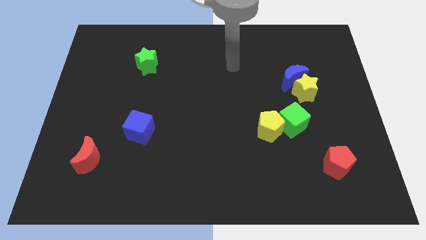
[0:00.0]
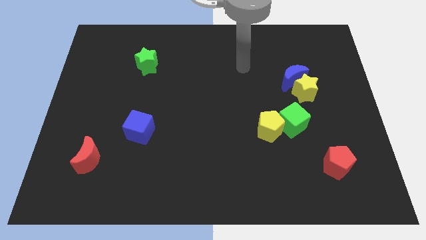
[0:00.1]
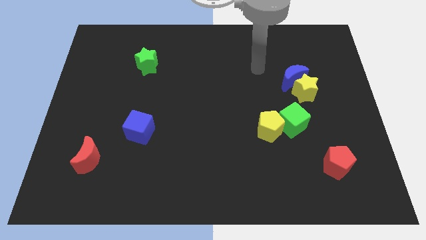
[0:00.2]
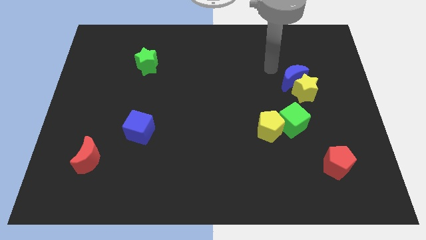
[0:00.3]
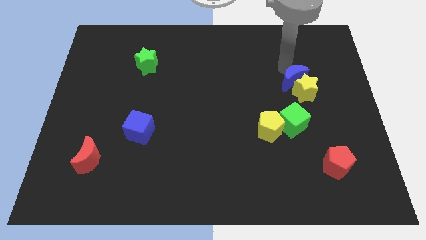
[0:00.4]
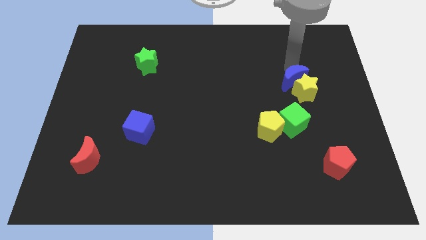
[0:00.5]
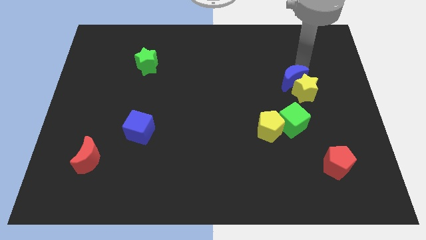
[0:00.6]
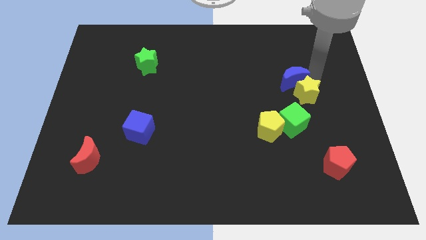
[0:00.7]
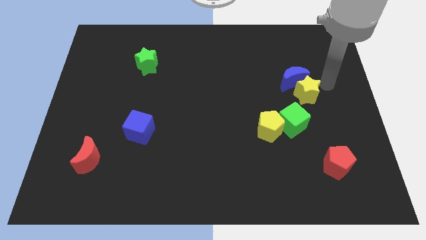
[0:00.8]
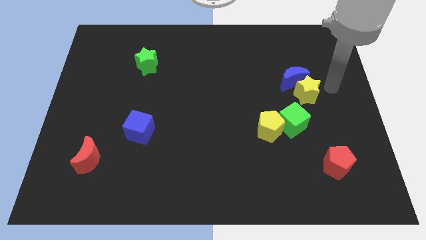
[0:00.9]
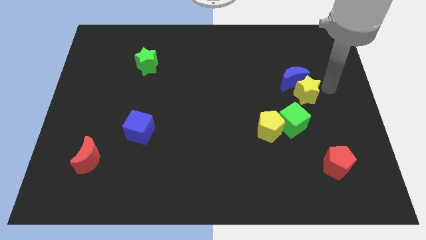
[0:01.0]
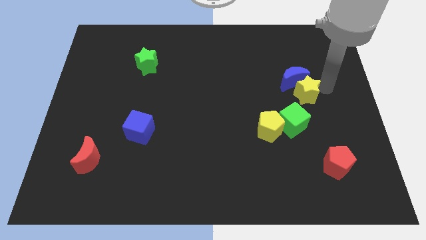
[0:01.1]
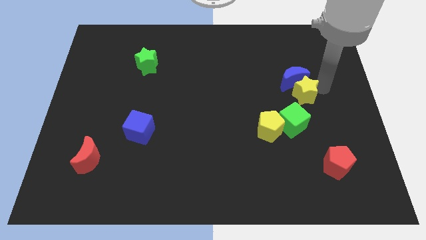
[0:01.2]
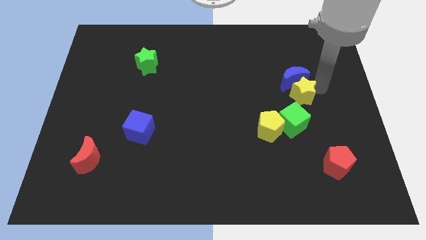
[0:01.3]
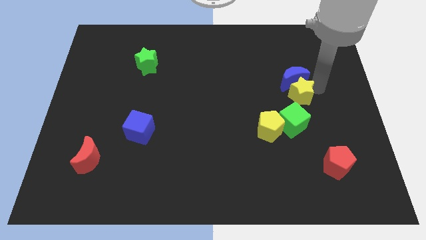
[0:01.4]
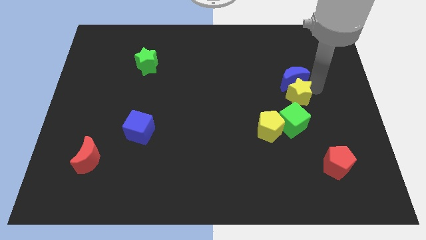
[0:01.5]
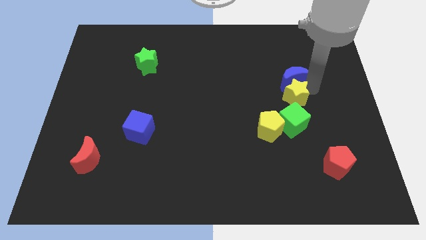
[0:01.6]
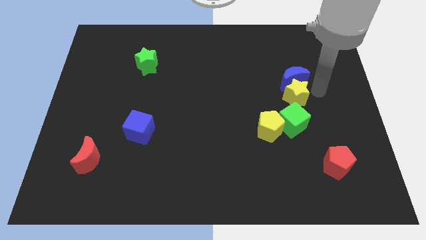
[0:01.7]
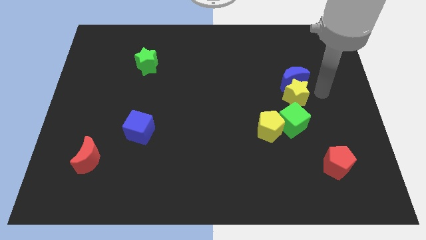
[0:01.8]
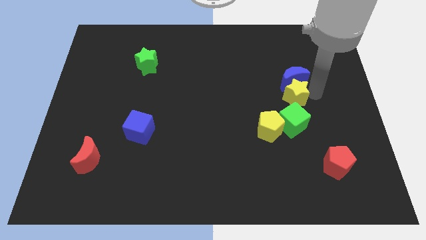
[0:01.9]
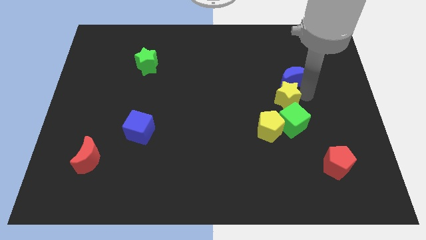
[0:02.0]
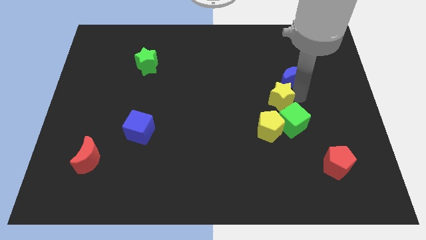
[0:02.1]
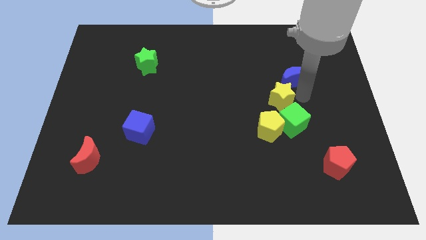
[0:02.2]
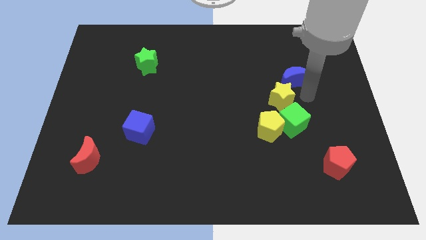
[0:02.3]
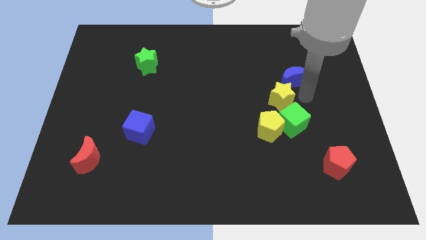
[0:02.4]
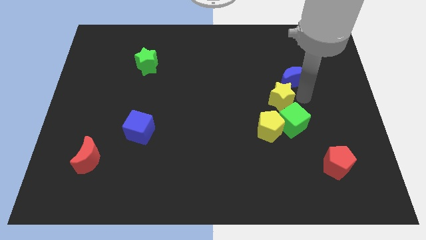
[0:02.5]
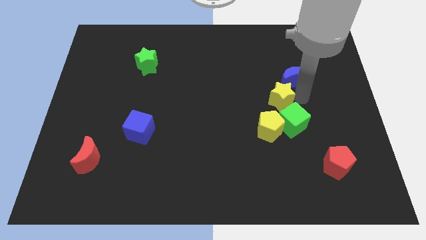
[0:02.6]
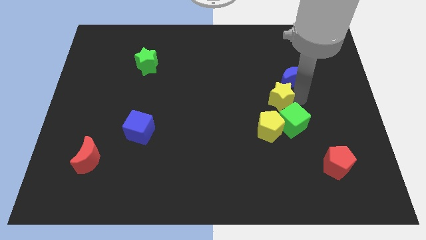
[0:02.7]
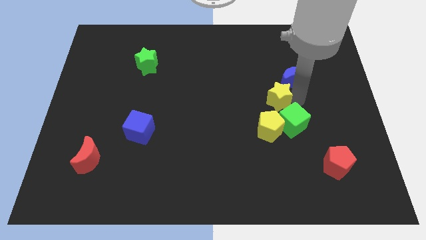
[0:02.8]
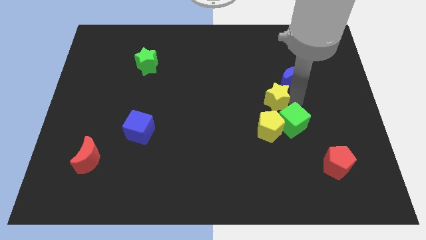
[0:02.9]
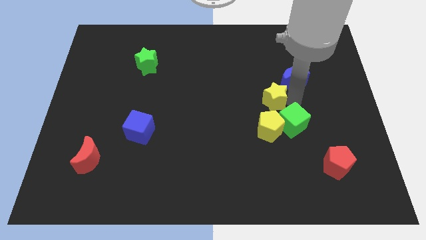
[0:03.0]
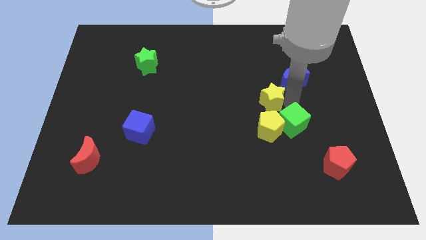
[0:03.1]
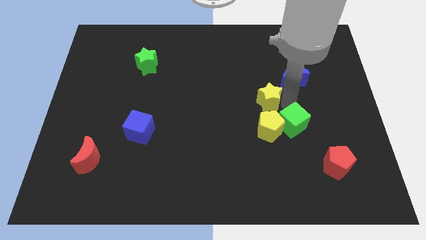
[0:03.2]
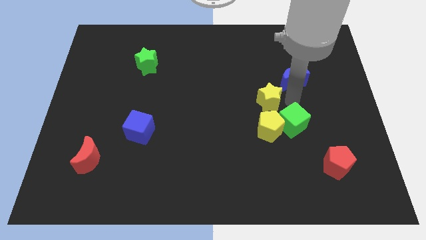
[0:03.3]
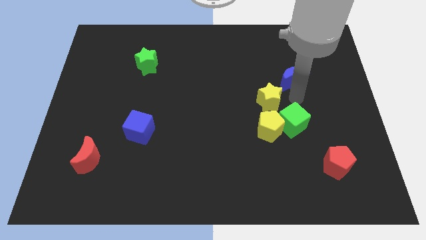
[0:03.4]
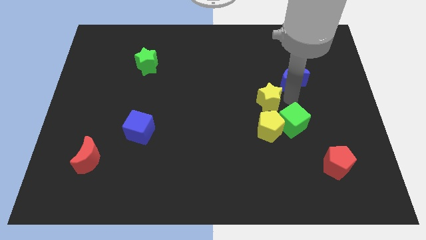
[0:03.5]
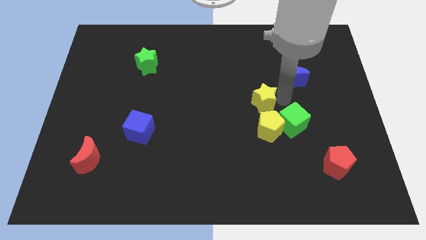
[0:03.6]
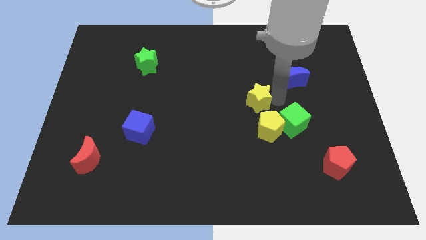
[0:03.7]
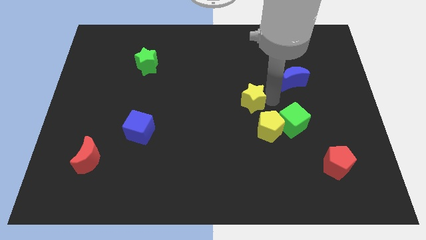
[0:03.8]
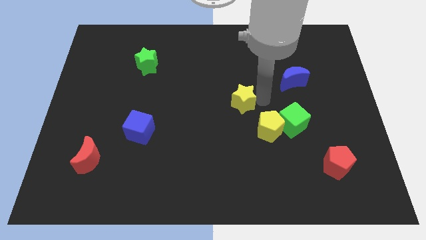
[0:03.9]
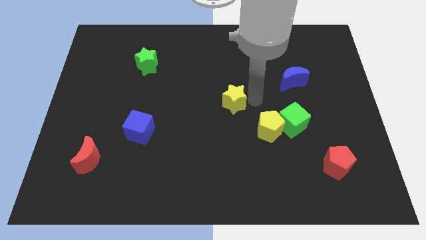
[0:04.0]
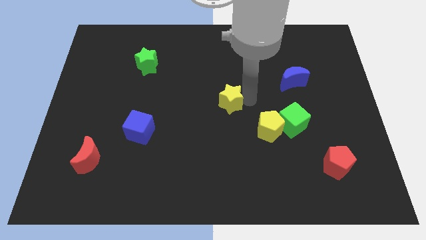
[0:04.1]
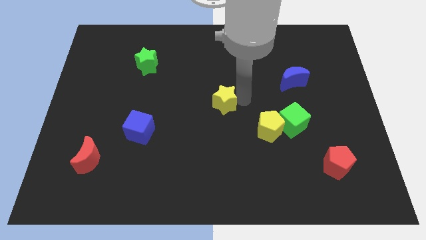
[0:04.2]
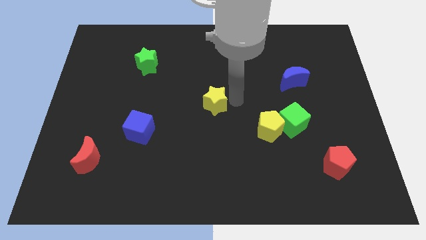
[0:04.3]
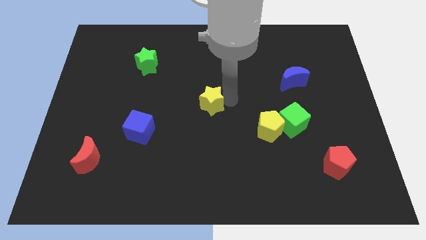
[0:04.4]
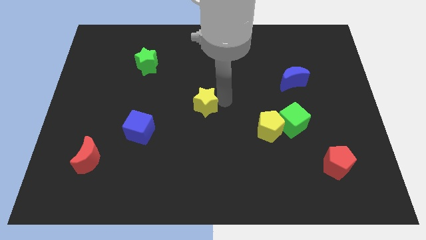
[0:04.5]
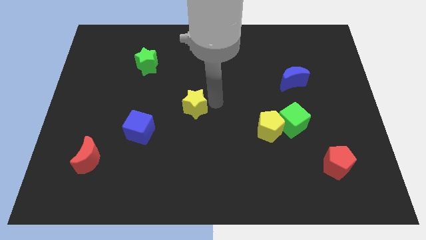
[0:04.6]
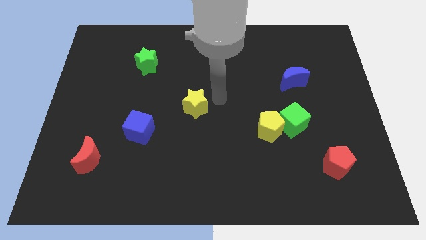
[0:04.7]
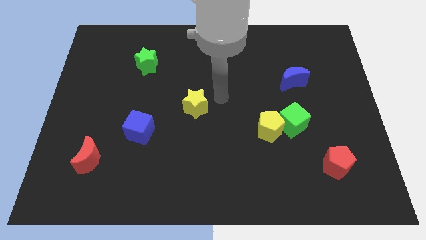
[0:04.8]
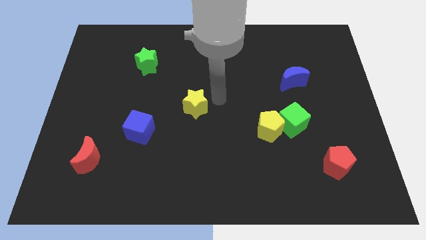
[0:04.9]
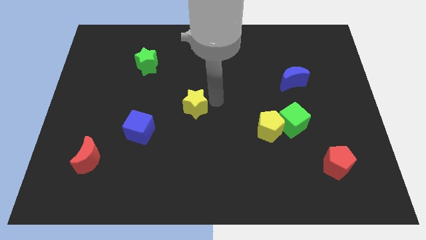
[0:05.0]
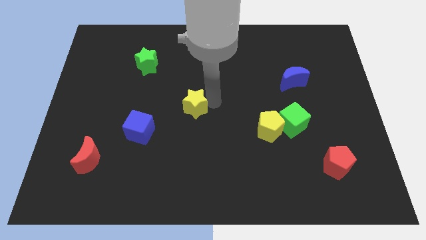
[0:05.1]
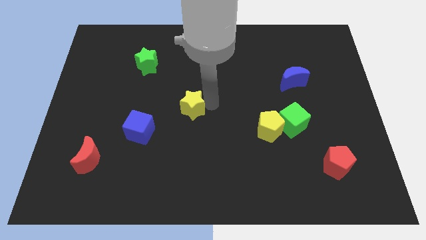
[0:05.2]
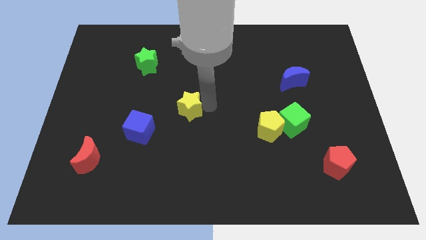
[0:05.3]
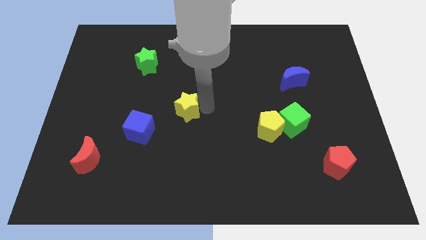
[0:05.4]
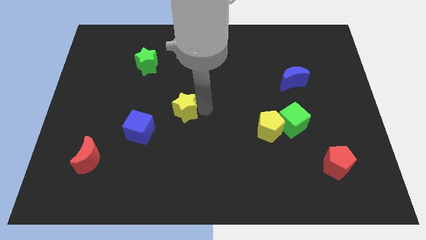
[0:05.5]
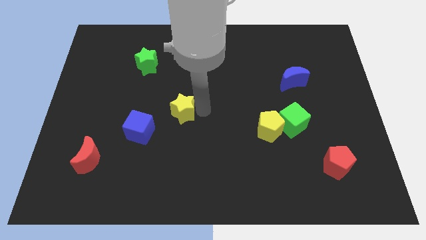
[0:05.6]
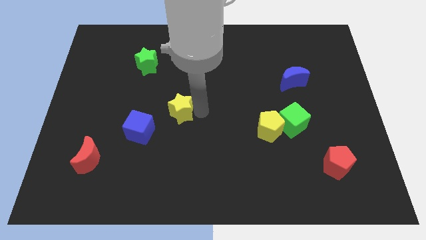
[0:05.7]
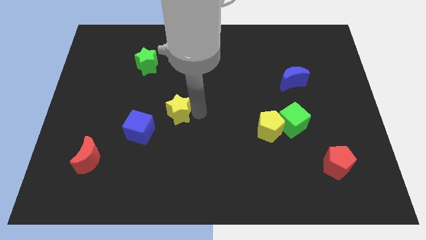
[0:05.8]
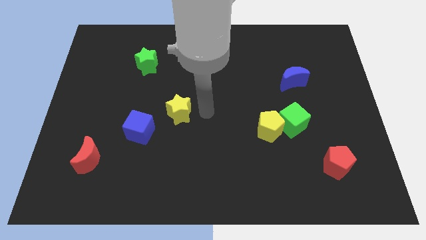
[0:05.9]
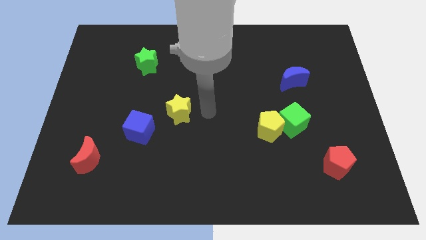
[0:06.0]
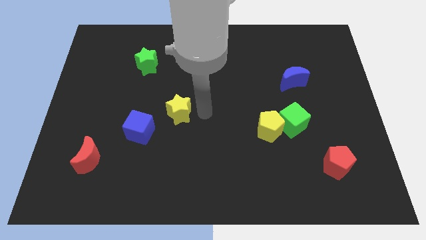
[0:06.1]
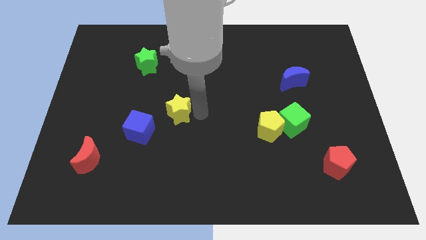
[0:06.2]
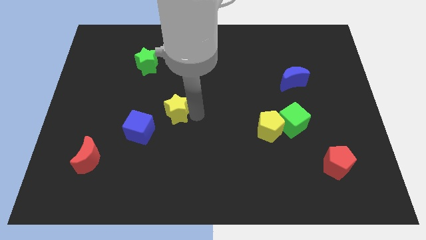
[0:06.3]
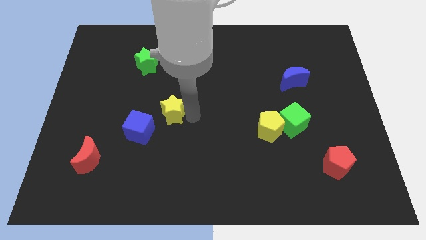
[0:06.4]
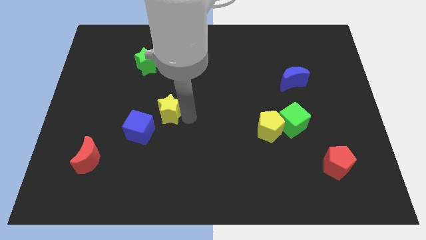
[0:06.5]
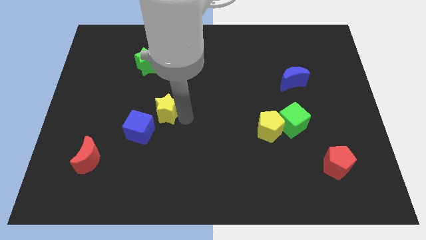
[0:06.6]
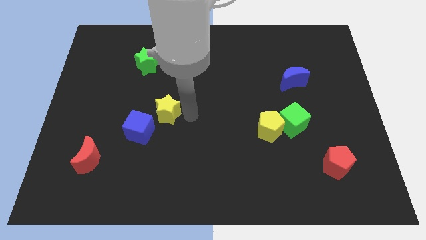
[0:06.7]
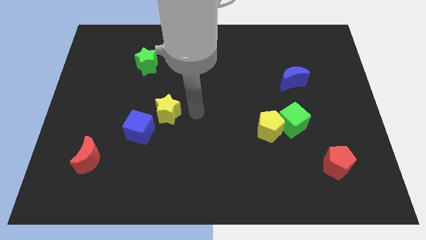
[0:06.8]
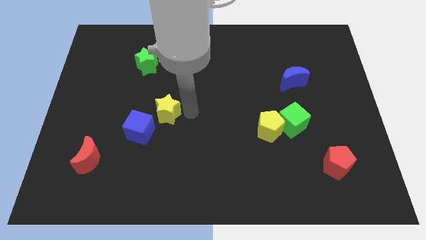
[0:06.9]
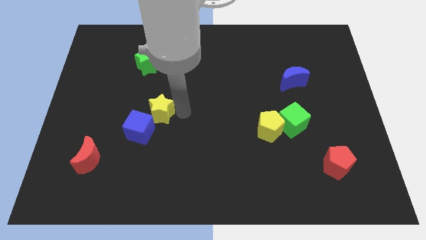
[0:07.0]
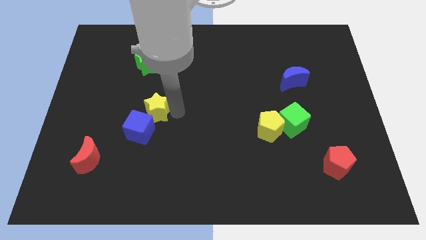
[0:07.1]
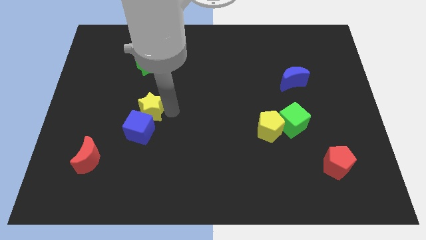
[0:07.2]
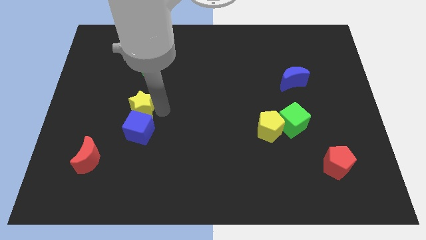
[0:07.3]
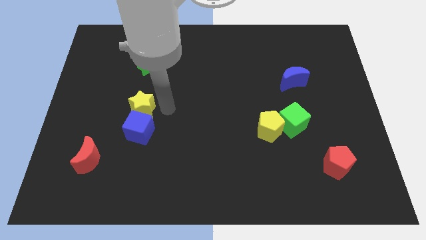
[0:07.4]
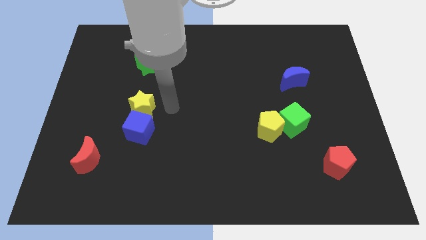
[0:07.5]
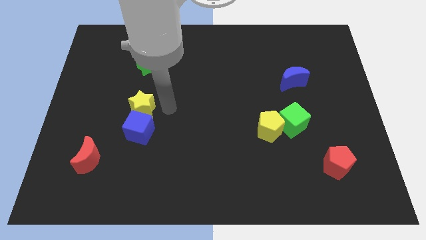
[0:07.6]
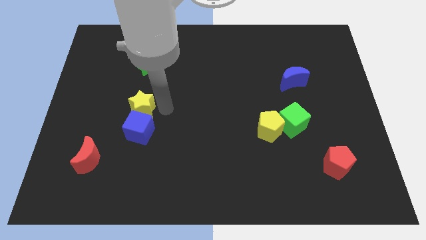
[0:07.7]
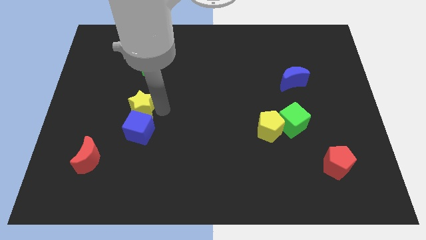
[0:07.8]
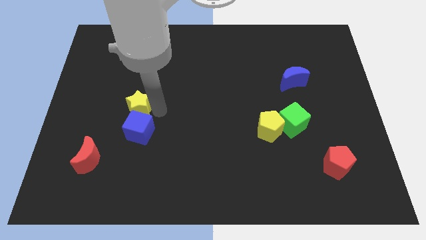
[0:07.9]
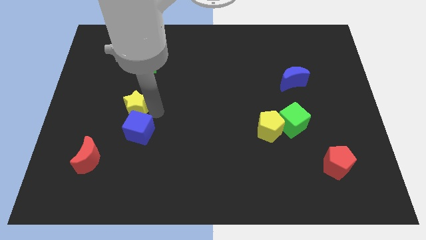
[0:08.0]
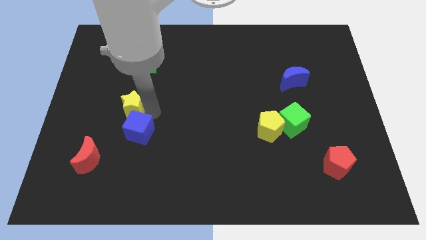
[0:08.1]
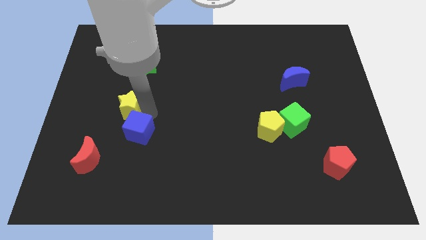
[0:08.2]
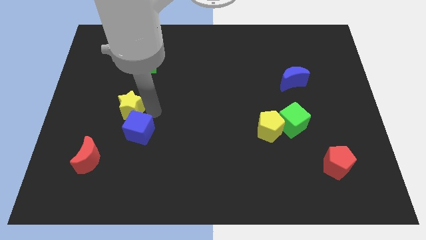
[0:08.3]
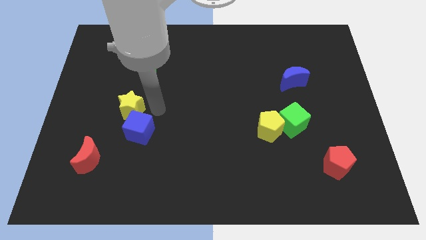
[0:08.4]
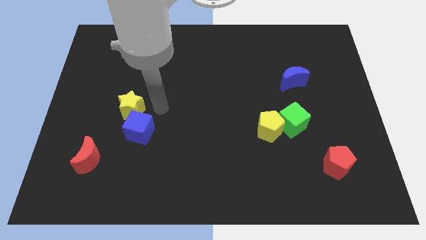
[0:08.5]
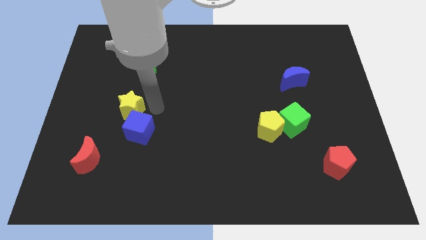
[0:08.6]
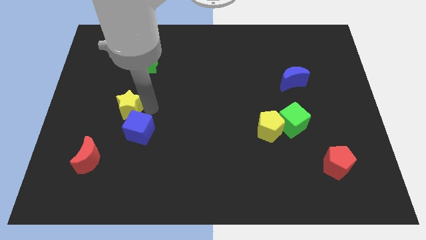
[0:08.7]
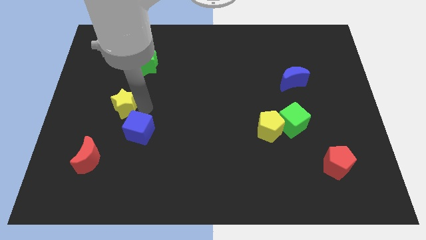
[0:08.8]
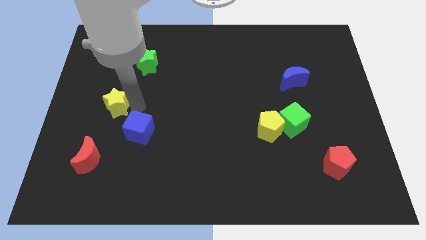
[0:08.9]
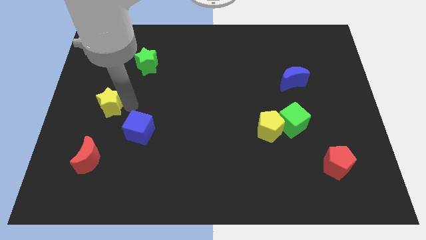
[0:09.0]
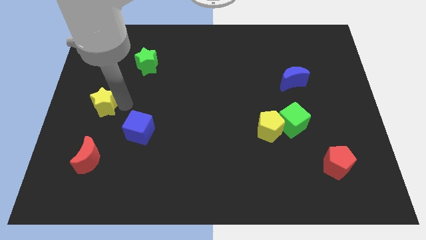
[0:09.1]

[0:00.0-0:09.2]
put the yellow star to the center left
